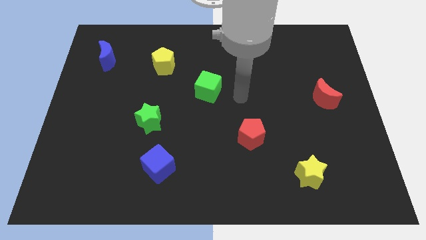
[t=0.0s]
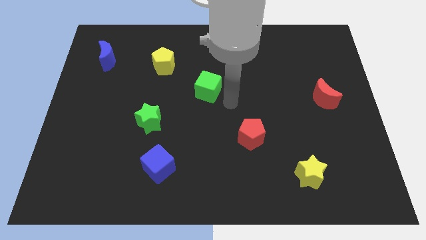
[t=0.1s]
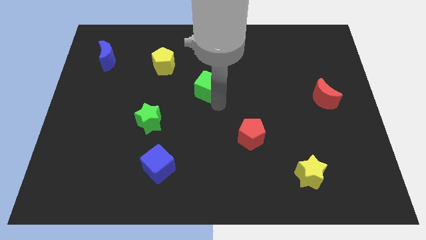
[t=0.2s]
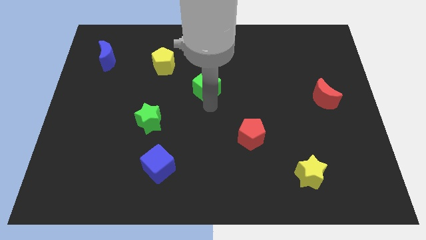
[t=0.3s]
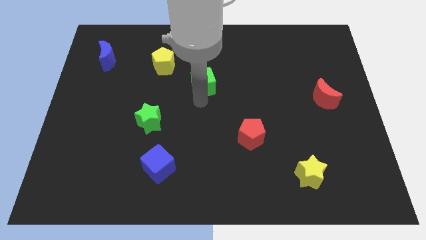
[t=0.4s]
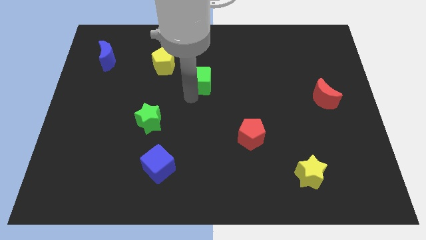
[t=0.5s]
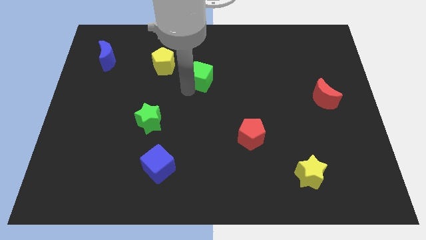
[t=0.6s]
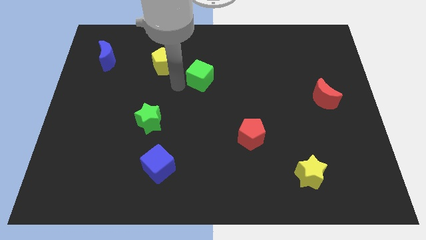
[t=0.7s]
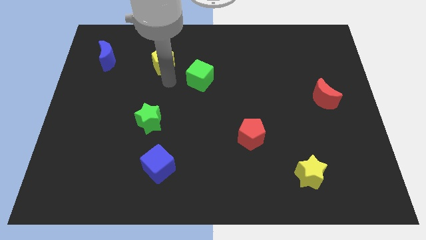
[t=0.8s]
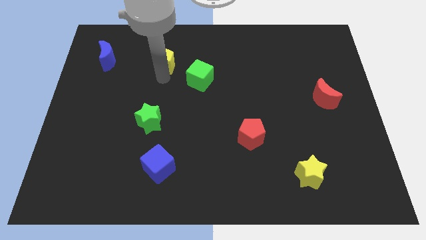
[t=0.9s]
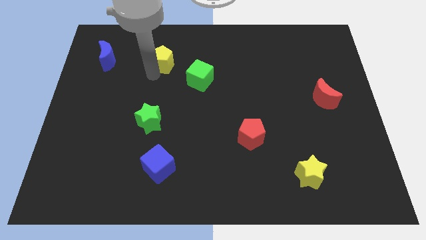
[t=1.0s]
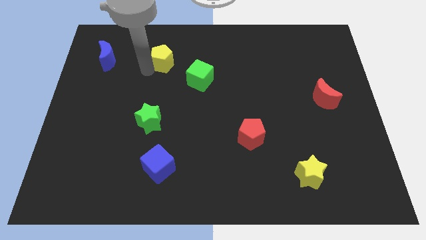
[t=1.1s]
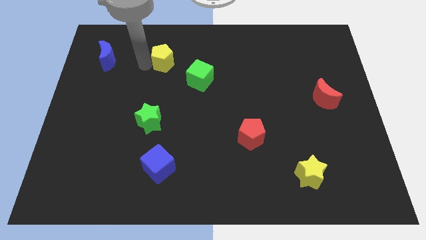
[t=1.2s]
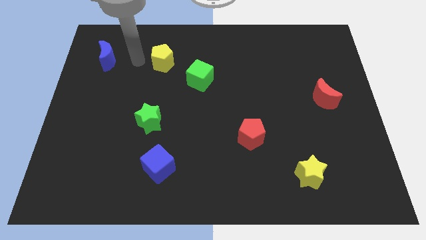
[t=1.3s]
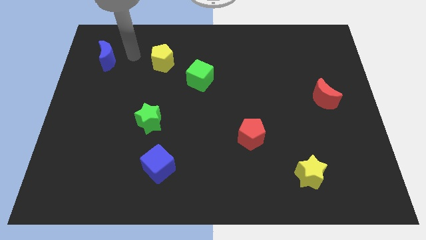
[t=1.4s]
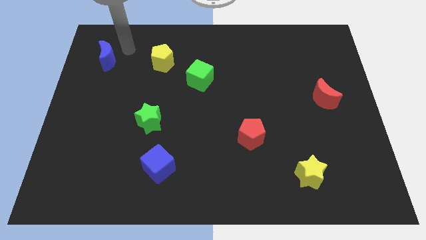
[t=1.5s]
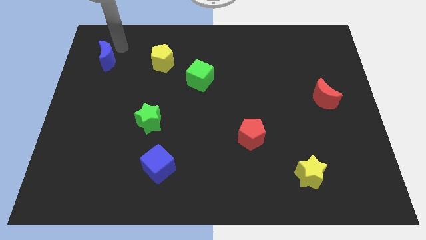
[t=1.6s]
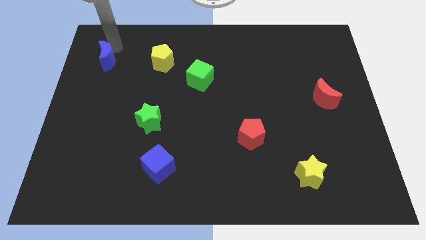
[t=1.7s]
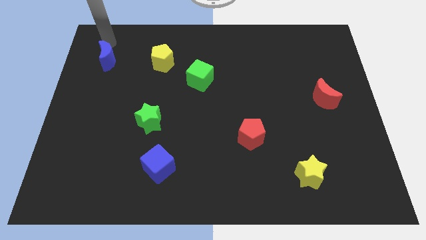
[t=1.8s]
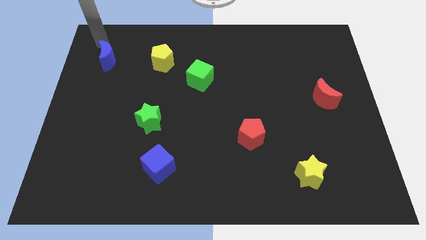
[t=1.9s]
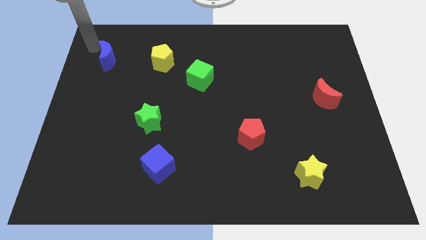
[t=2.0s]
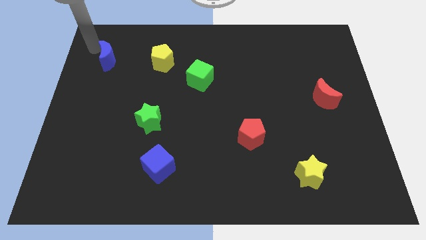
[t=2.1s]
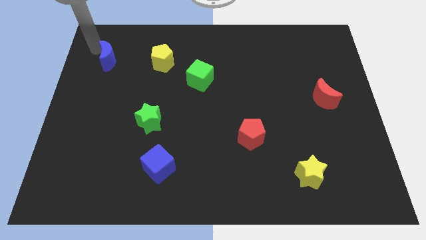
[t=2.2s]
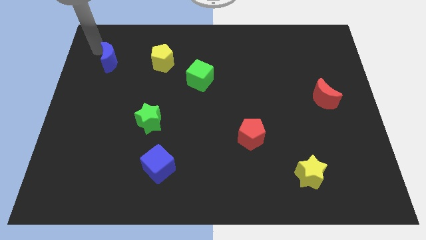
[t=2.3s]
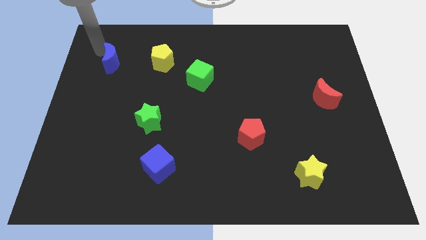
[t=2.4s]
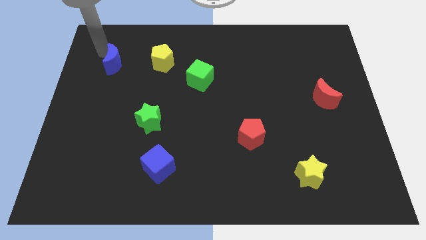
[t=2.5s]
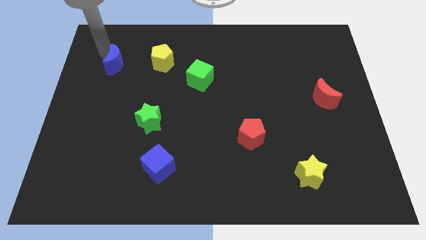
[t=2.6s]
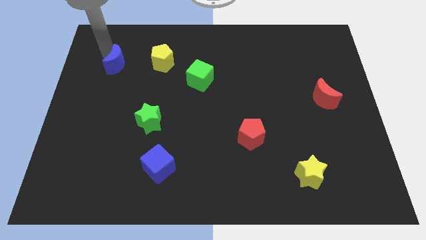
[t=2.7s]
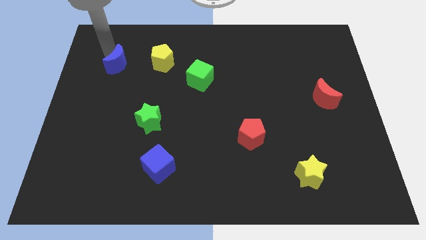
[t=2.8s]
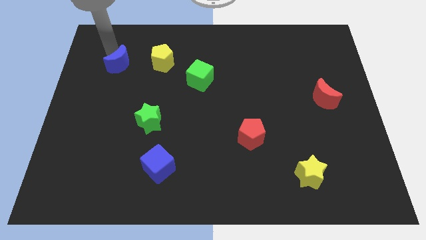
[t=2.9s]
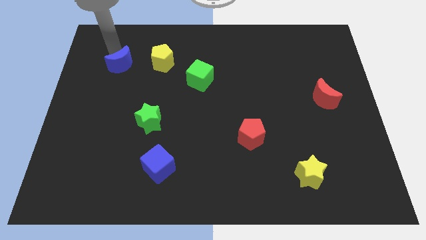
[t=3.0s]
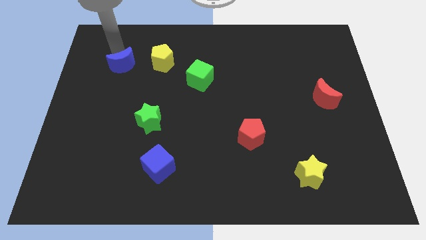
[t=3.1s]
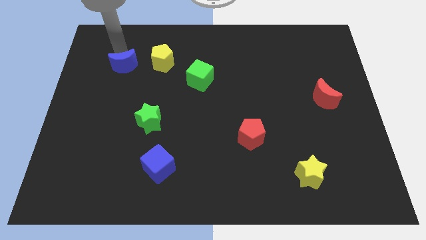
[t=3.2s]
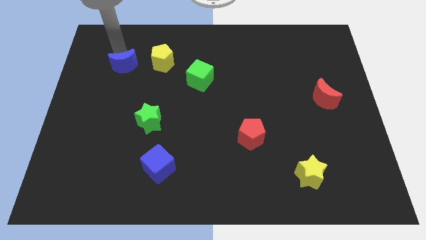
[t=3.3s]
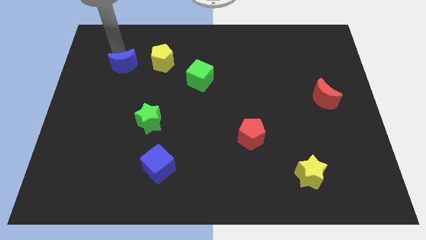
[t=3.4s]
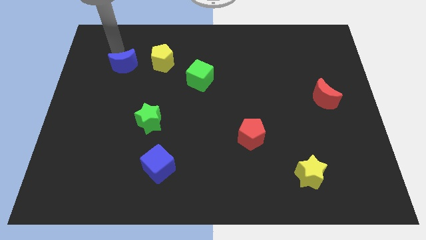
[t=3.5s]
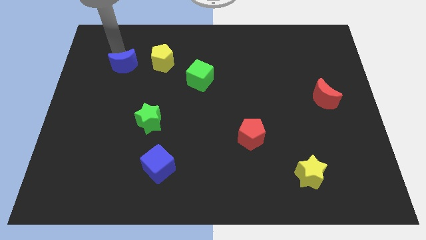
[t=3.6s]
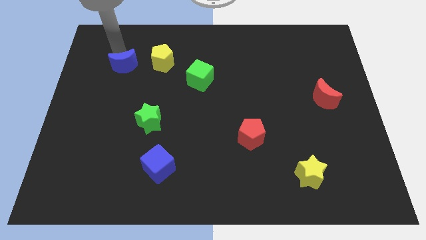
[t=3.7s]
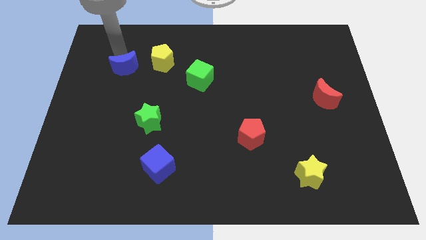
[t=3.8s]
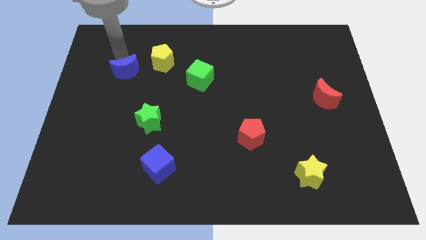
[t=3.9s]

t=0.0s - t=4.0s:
slightly move the blue moon downwards and right

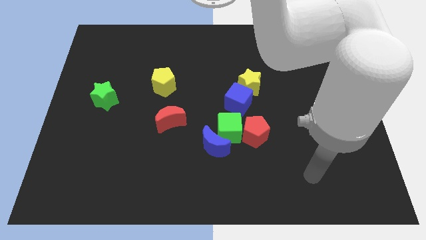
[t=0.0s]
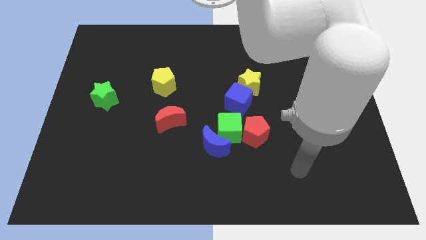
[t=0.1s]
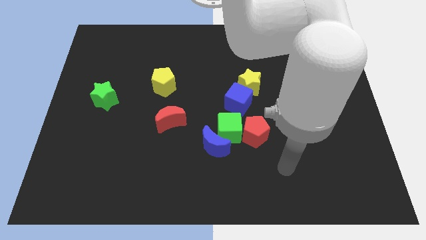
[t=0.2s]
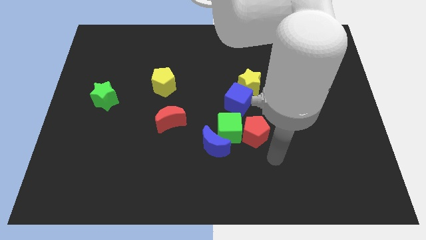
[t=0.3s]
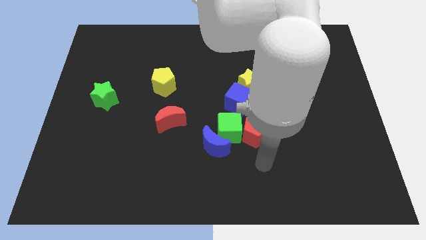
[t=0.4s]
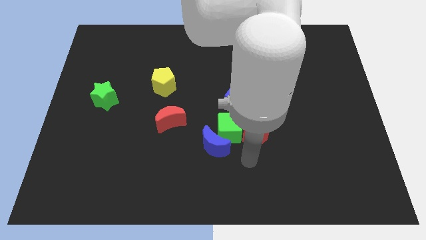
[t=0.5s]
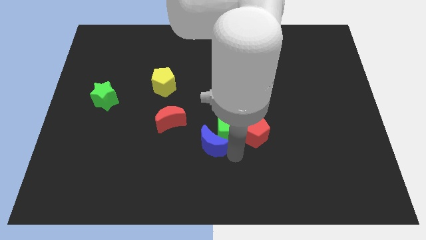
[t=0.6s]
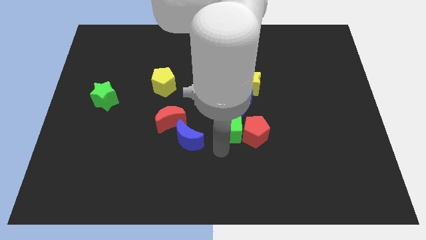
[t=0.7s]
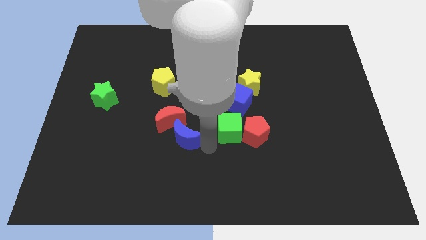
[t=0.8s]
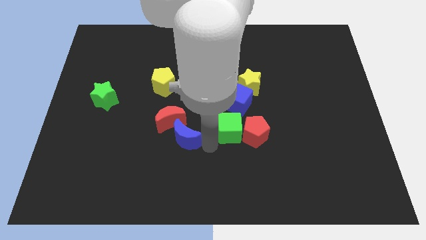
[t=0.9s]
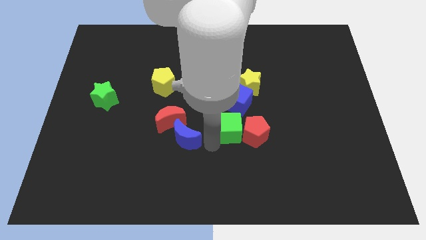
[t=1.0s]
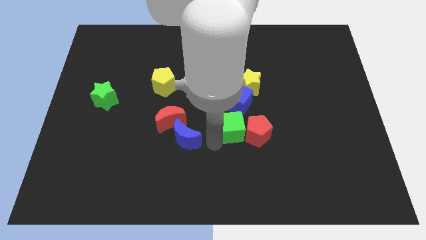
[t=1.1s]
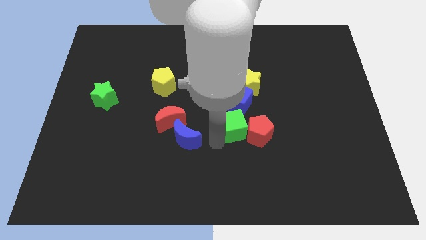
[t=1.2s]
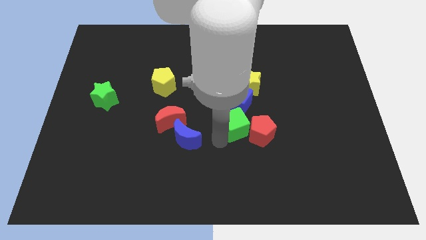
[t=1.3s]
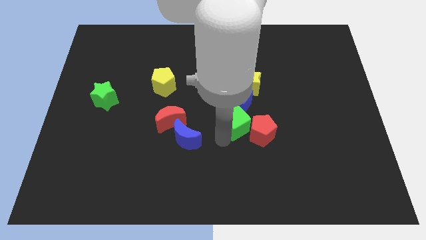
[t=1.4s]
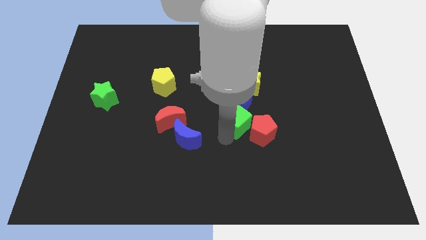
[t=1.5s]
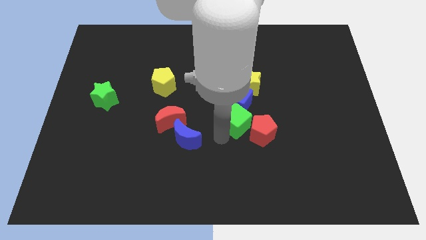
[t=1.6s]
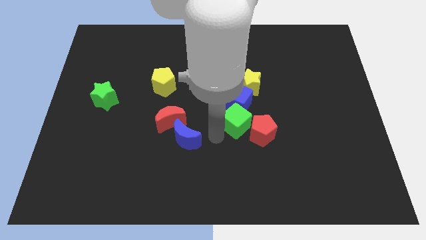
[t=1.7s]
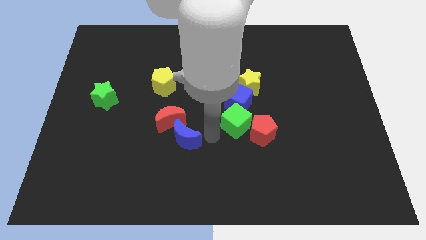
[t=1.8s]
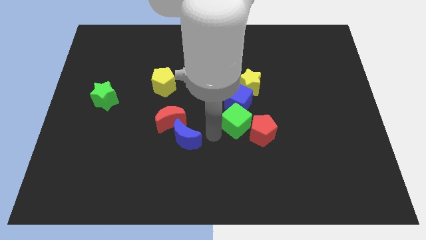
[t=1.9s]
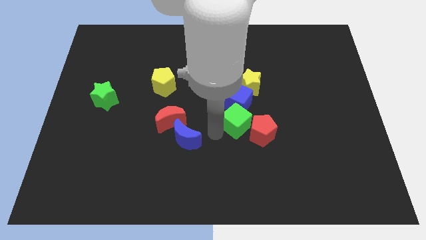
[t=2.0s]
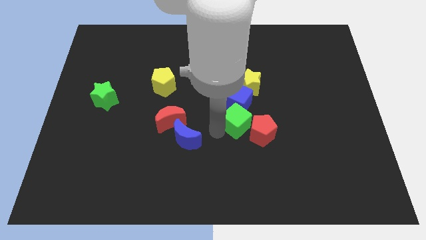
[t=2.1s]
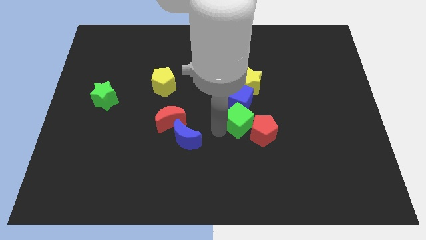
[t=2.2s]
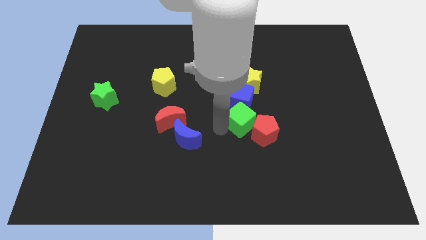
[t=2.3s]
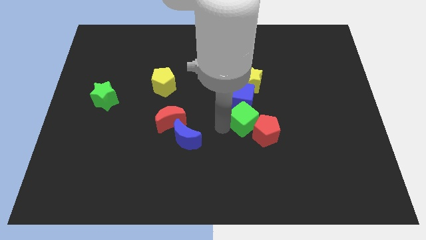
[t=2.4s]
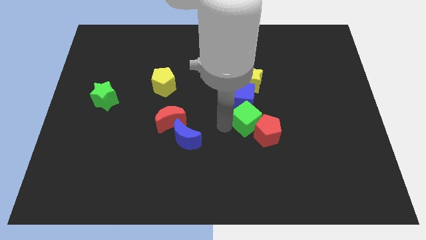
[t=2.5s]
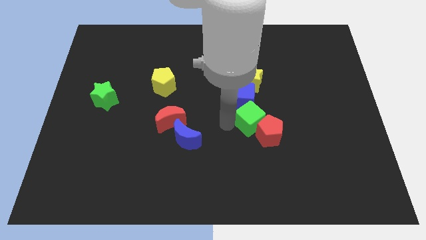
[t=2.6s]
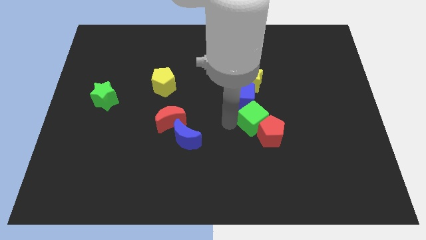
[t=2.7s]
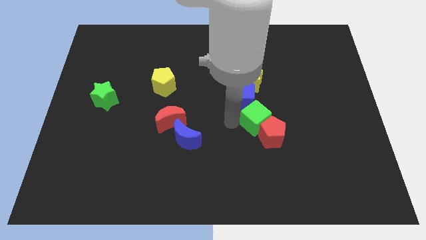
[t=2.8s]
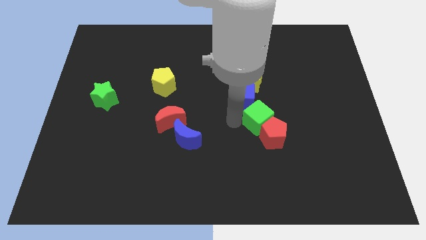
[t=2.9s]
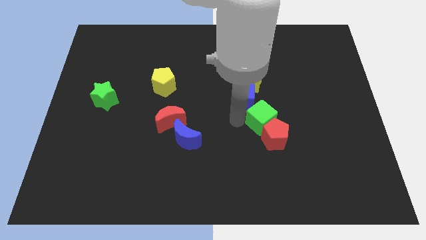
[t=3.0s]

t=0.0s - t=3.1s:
slide the green cube right a little bit

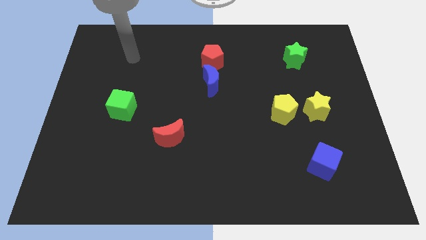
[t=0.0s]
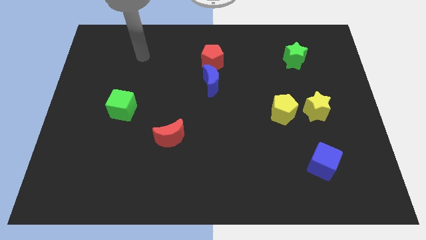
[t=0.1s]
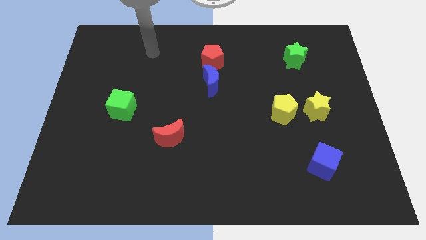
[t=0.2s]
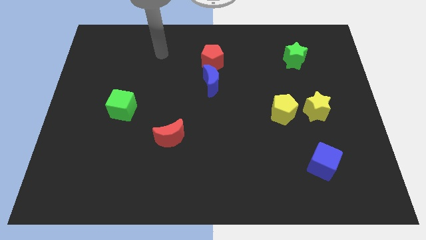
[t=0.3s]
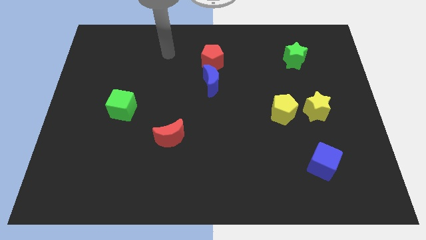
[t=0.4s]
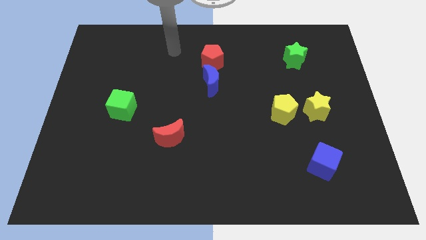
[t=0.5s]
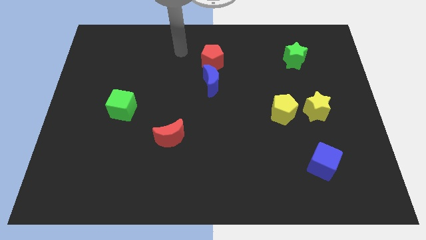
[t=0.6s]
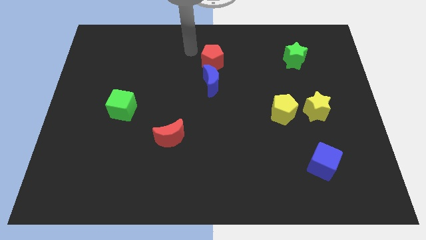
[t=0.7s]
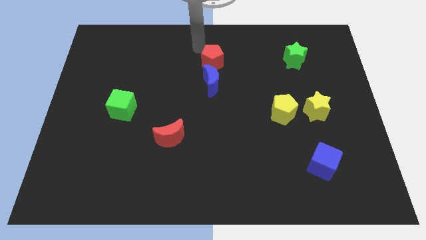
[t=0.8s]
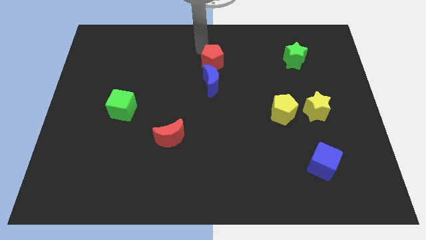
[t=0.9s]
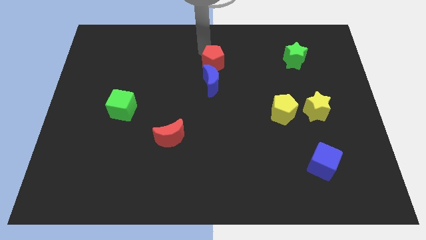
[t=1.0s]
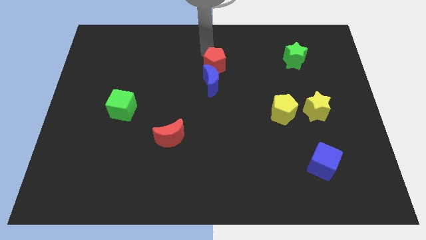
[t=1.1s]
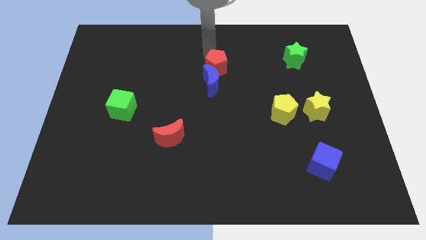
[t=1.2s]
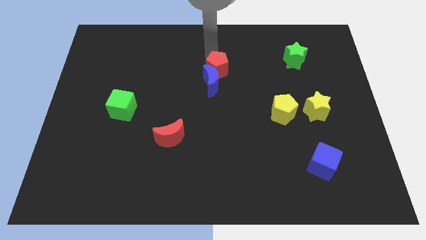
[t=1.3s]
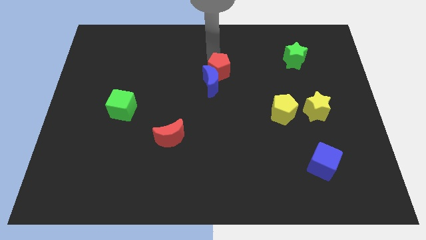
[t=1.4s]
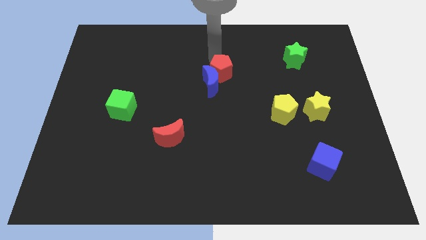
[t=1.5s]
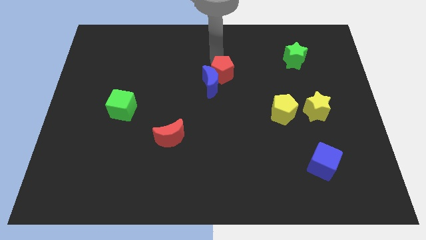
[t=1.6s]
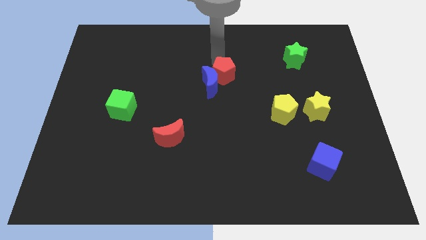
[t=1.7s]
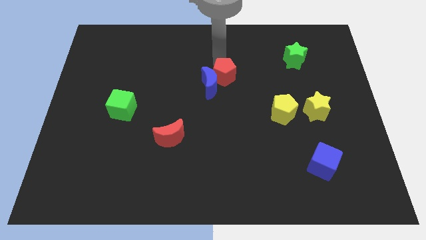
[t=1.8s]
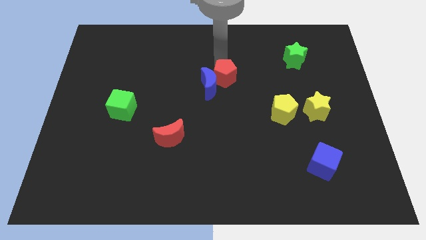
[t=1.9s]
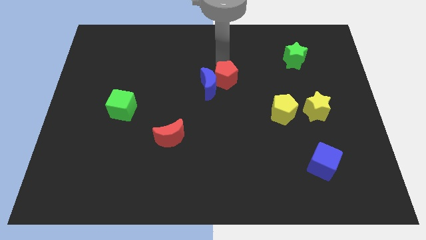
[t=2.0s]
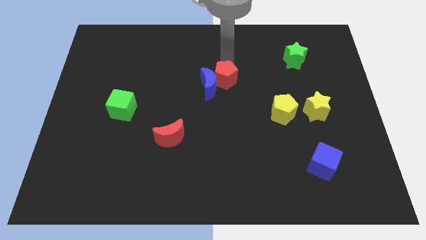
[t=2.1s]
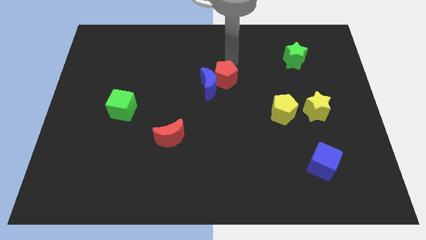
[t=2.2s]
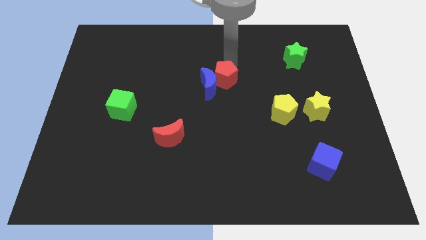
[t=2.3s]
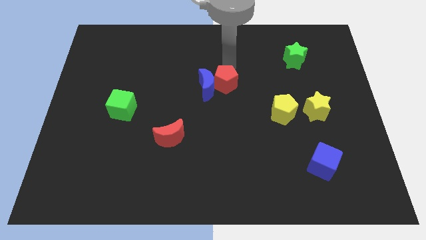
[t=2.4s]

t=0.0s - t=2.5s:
move the red pentagon a bit down
